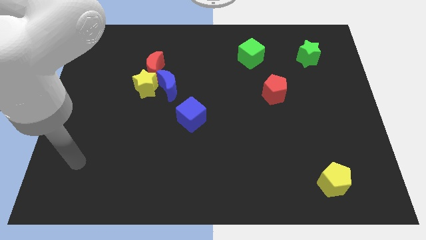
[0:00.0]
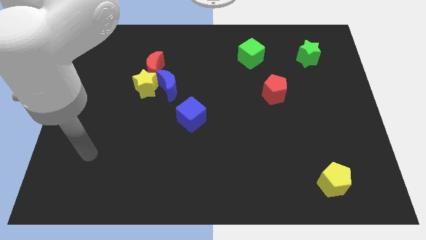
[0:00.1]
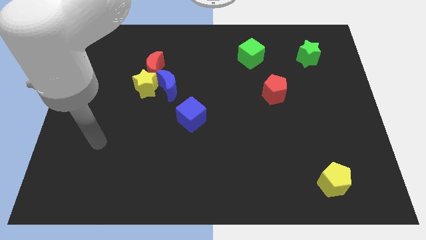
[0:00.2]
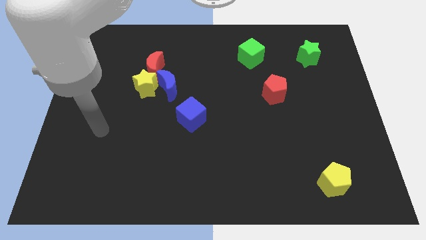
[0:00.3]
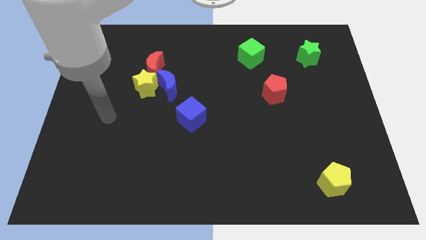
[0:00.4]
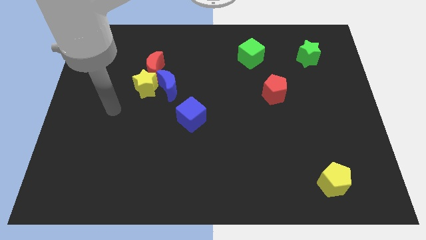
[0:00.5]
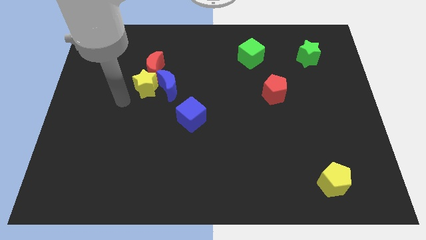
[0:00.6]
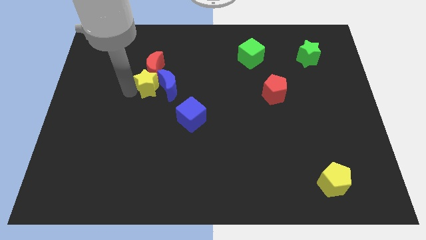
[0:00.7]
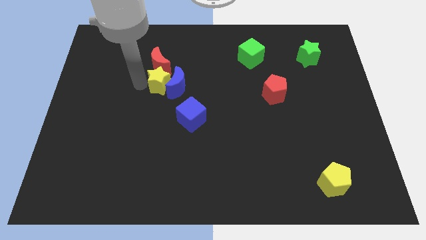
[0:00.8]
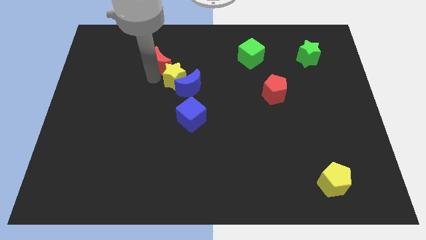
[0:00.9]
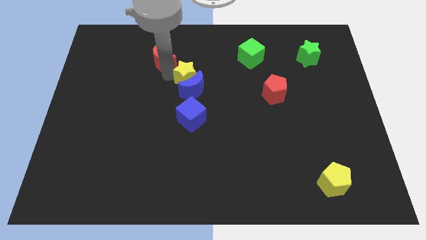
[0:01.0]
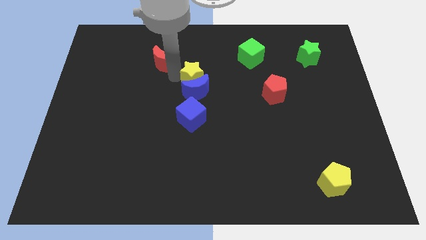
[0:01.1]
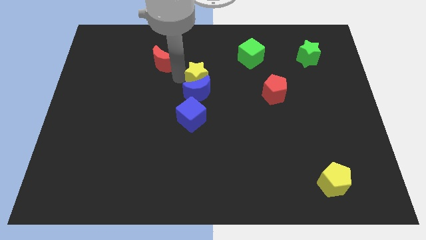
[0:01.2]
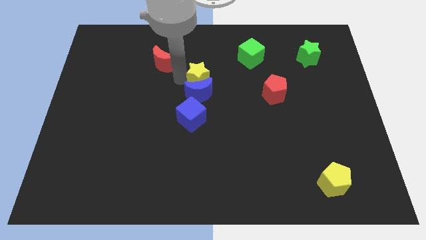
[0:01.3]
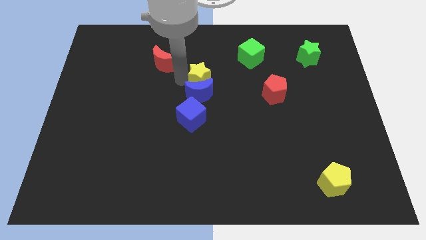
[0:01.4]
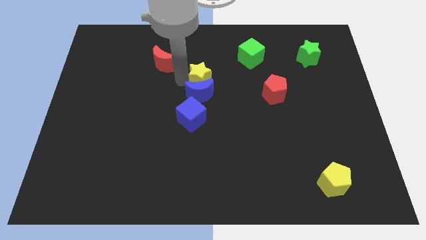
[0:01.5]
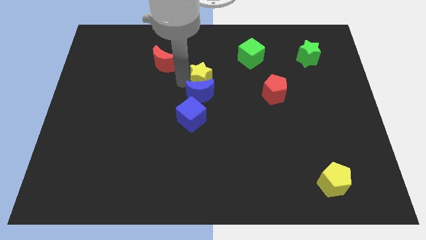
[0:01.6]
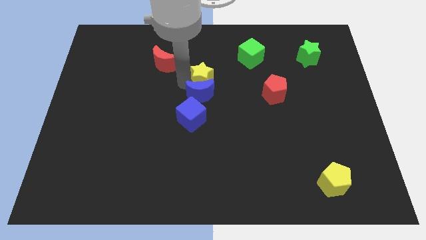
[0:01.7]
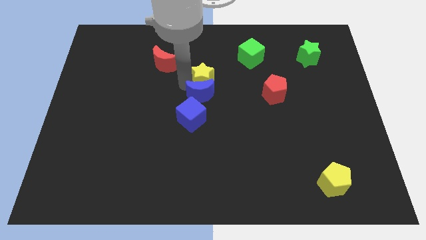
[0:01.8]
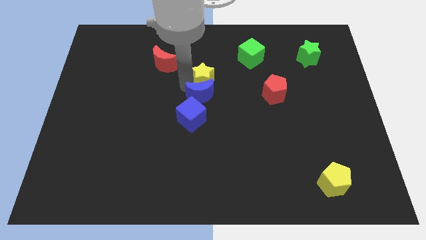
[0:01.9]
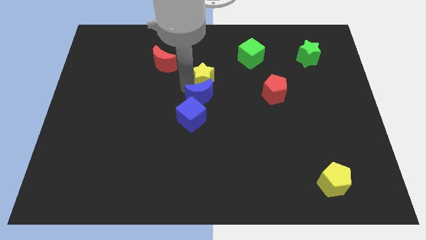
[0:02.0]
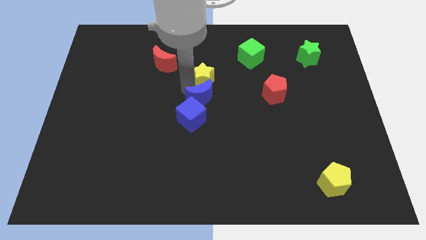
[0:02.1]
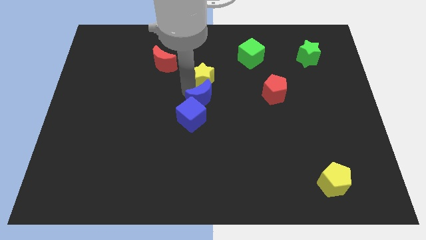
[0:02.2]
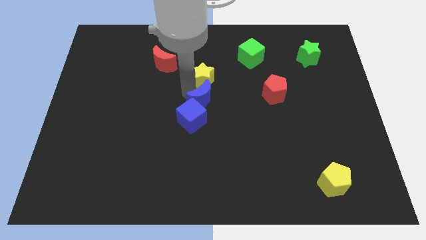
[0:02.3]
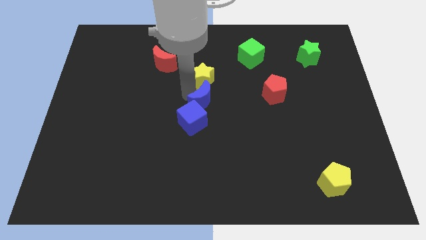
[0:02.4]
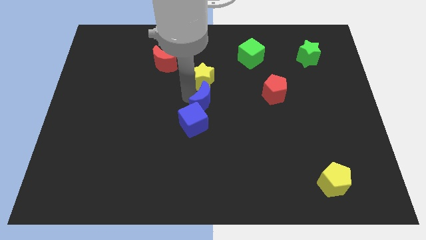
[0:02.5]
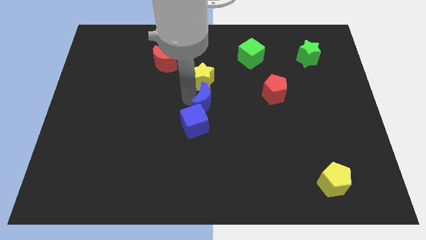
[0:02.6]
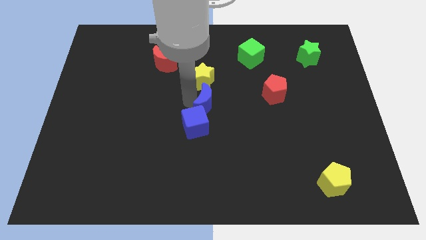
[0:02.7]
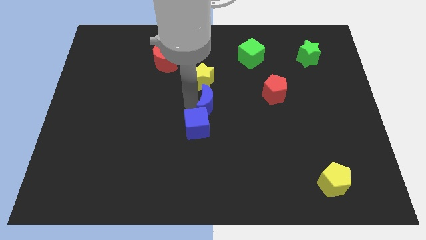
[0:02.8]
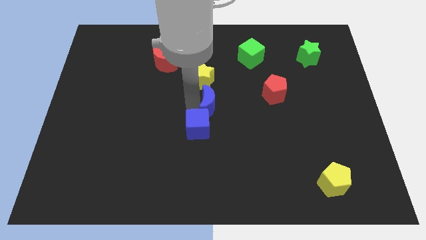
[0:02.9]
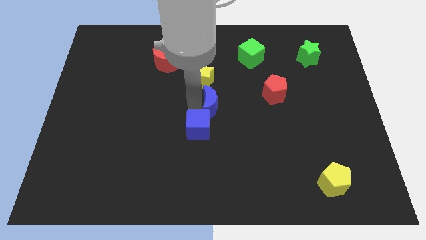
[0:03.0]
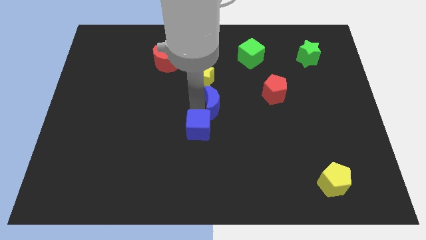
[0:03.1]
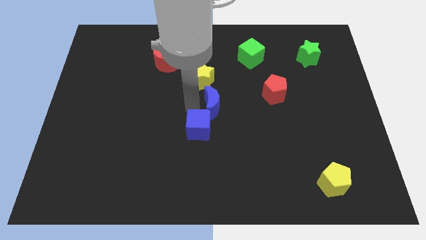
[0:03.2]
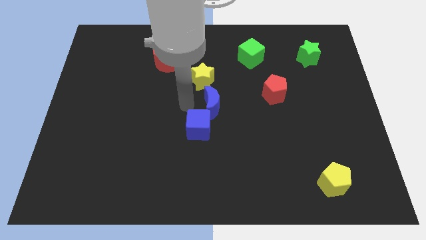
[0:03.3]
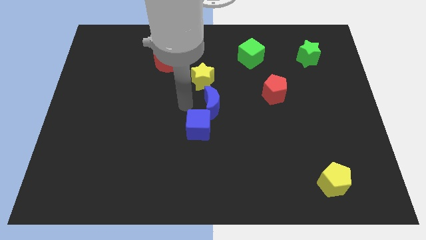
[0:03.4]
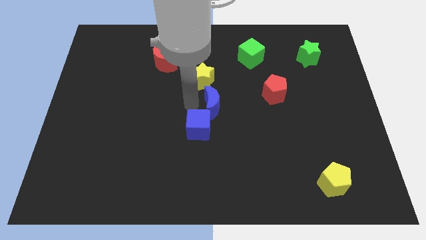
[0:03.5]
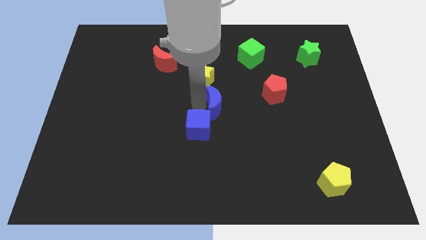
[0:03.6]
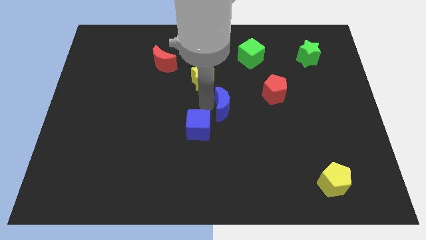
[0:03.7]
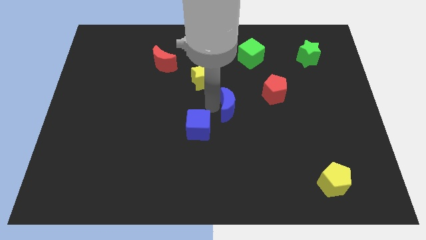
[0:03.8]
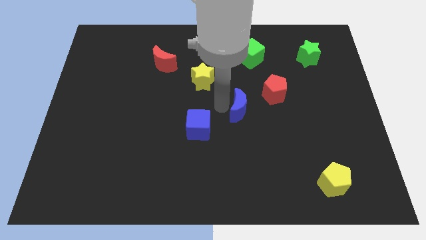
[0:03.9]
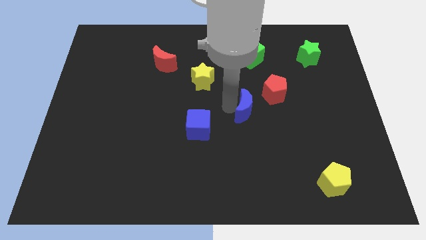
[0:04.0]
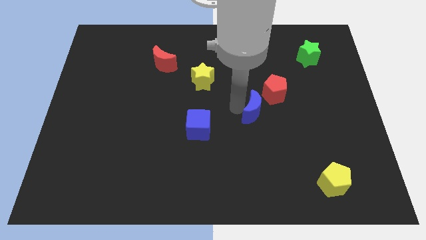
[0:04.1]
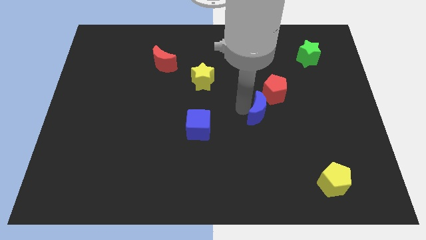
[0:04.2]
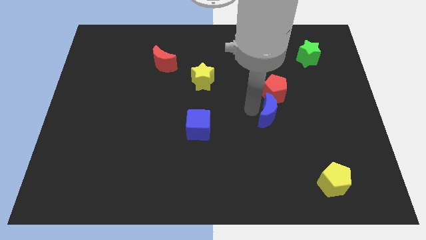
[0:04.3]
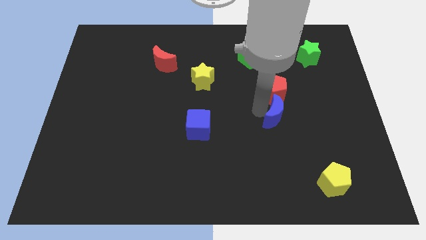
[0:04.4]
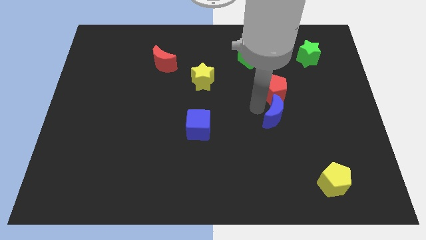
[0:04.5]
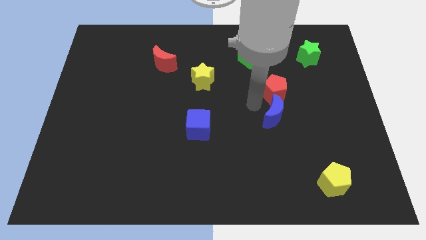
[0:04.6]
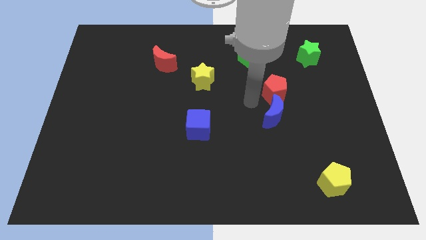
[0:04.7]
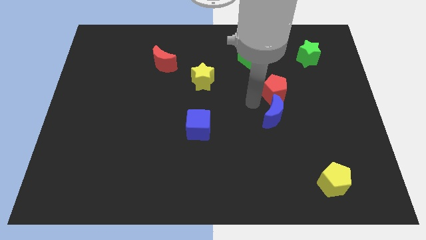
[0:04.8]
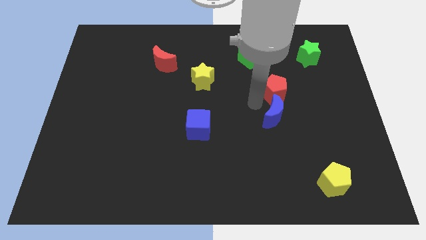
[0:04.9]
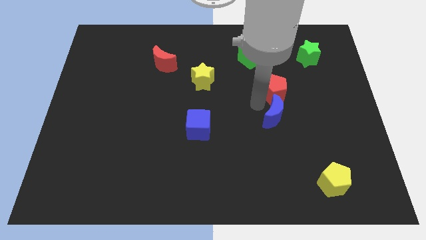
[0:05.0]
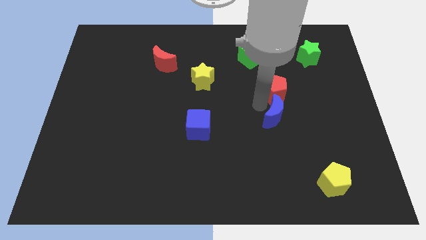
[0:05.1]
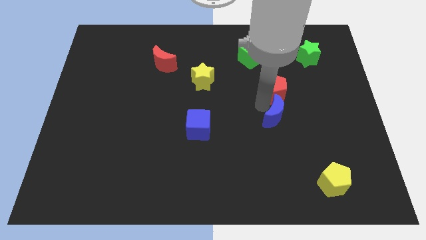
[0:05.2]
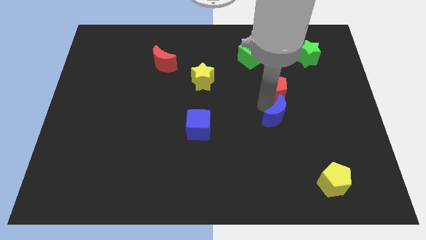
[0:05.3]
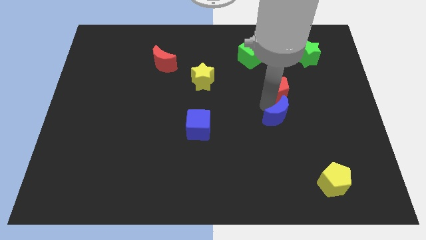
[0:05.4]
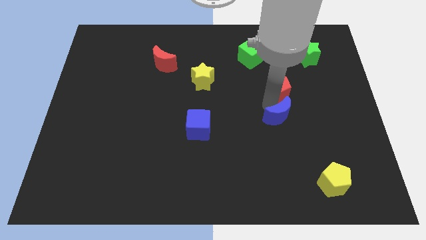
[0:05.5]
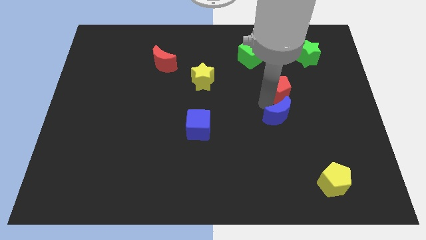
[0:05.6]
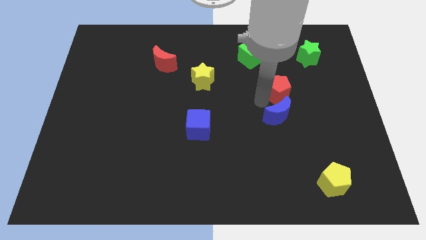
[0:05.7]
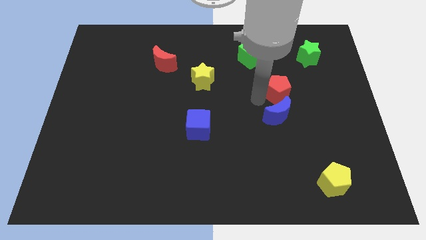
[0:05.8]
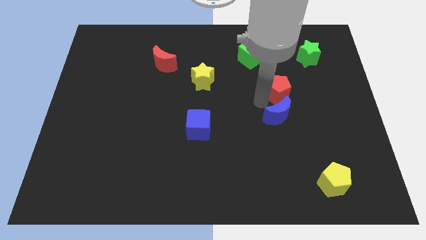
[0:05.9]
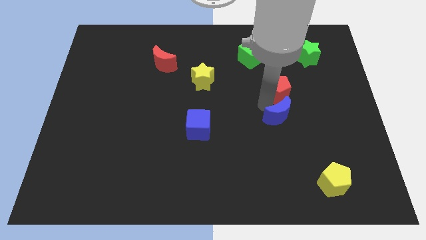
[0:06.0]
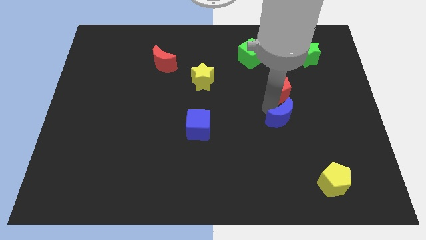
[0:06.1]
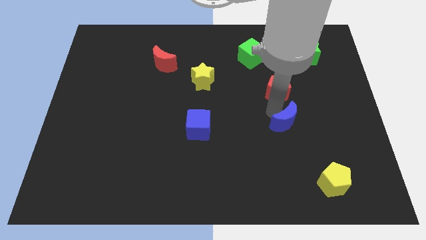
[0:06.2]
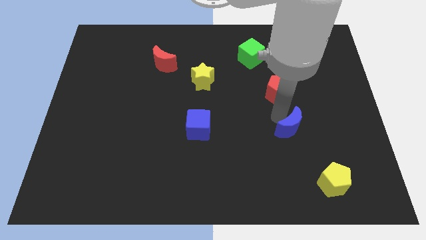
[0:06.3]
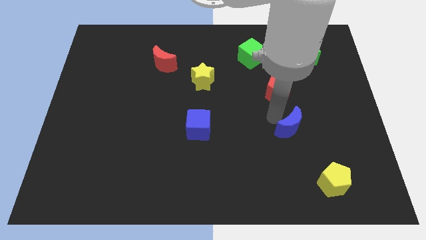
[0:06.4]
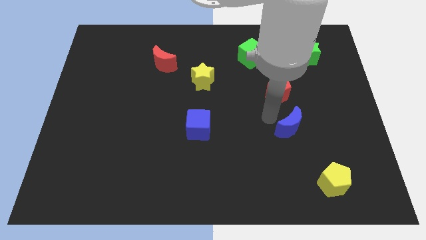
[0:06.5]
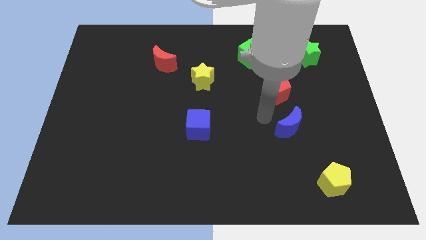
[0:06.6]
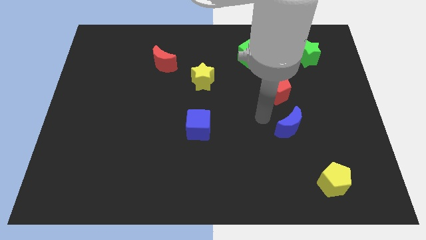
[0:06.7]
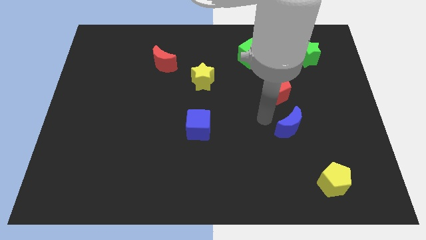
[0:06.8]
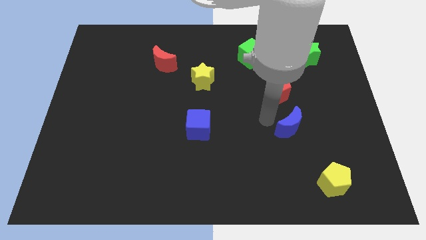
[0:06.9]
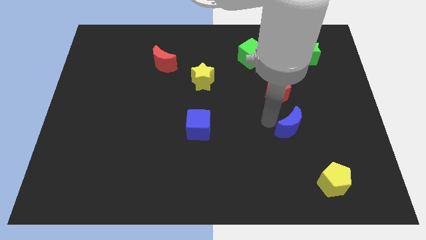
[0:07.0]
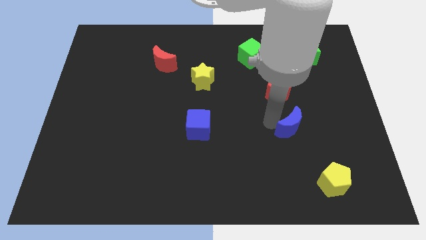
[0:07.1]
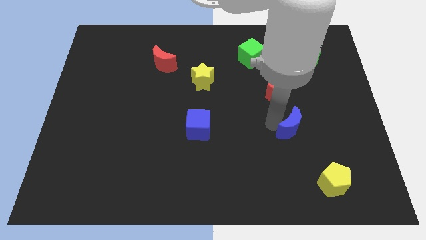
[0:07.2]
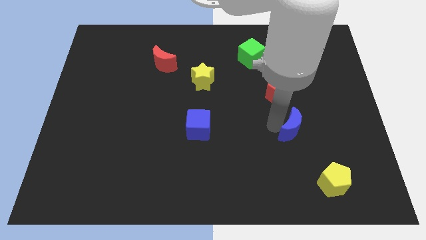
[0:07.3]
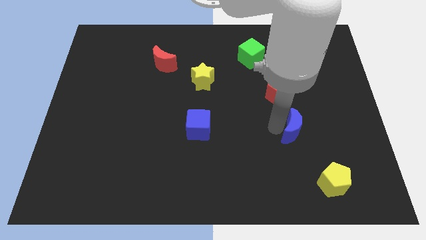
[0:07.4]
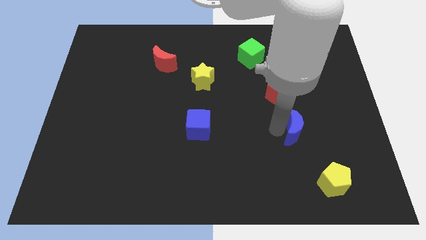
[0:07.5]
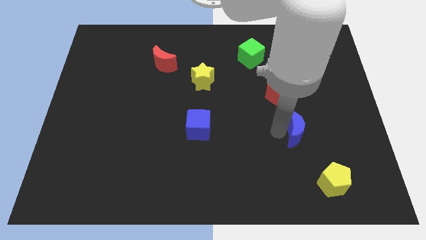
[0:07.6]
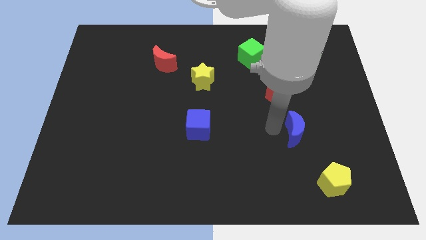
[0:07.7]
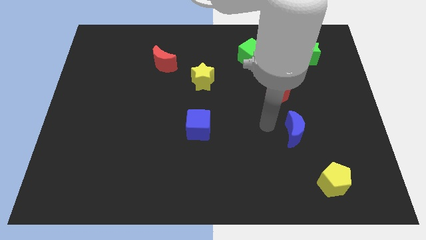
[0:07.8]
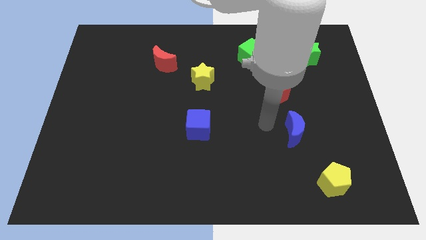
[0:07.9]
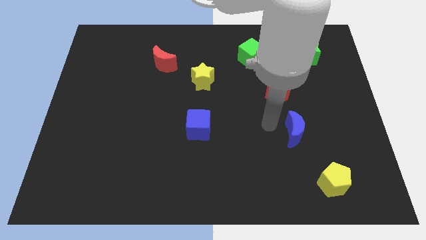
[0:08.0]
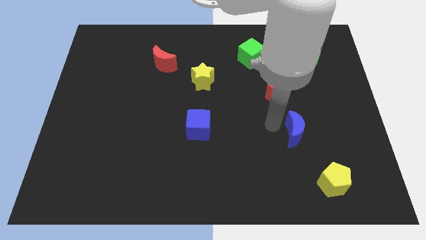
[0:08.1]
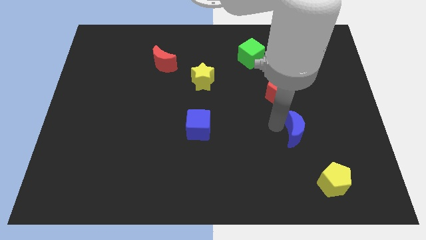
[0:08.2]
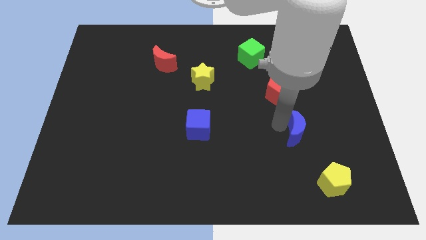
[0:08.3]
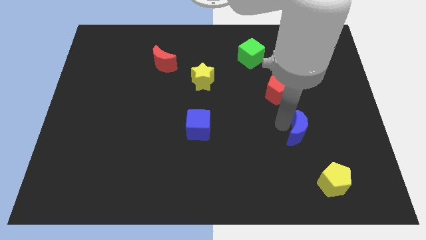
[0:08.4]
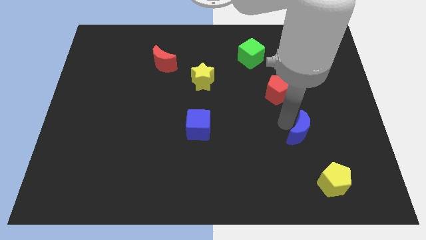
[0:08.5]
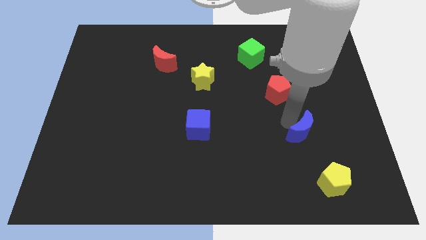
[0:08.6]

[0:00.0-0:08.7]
slide the blue moon above the yellow pentagon
